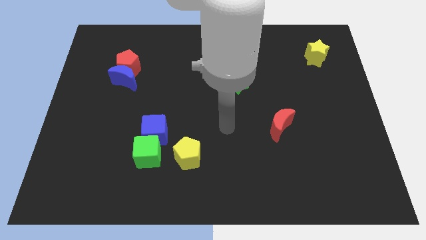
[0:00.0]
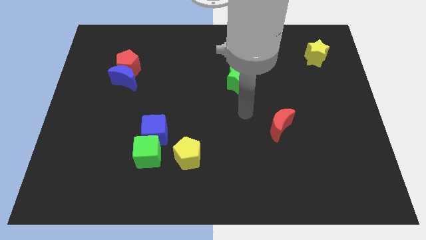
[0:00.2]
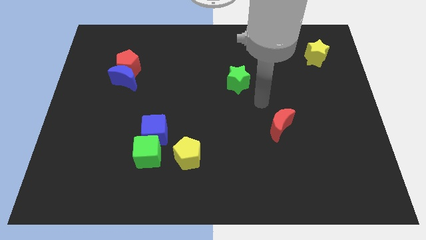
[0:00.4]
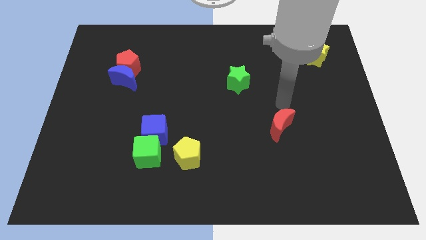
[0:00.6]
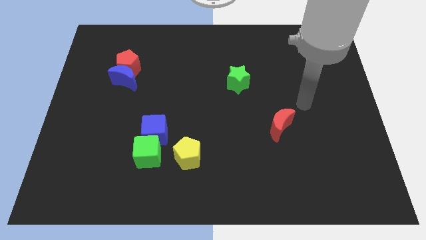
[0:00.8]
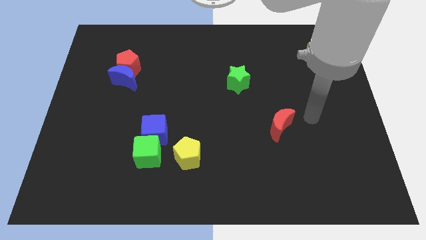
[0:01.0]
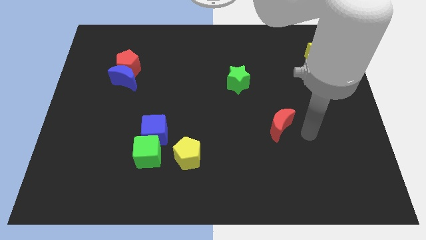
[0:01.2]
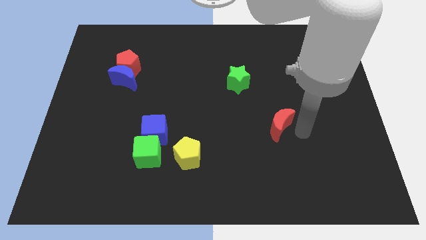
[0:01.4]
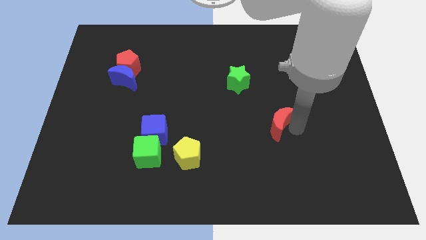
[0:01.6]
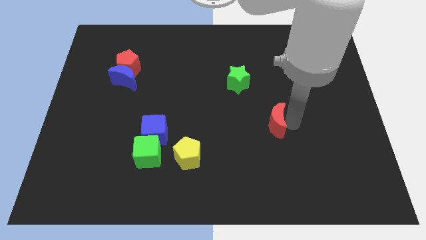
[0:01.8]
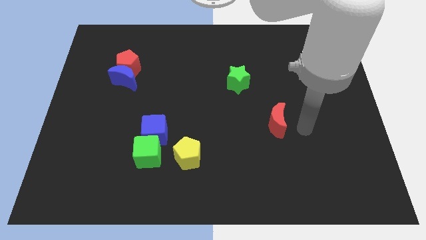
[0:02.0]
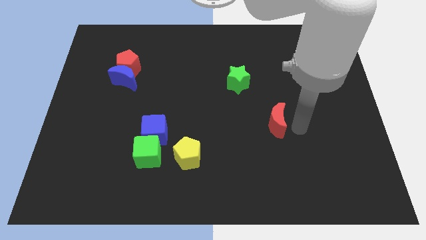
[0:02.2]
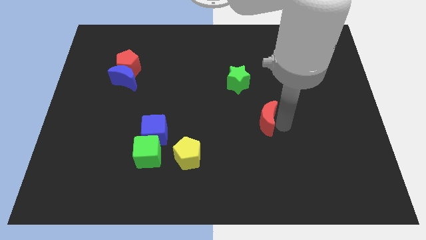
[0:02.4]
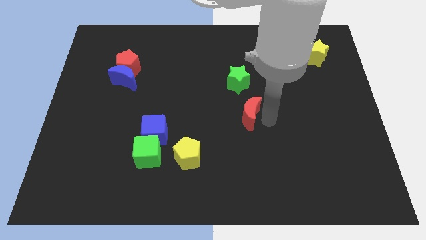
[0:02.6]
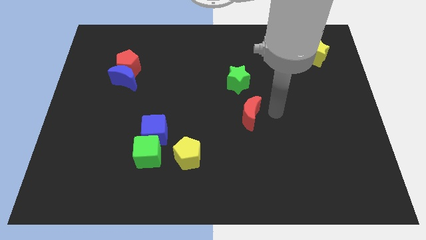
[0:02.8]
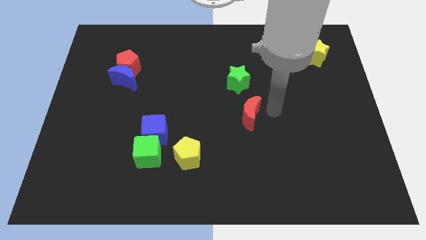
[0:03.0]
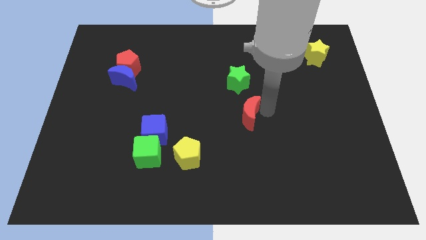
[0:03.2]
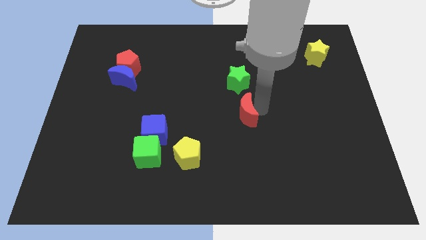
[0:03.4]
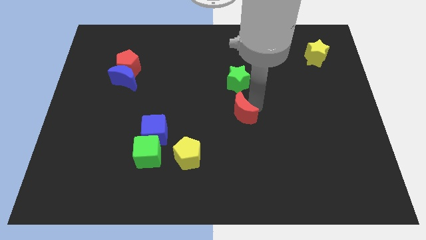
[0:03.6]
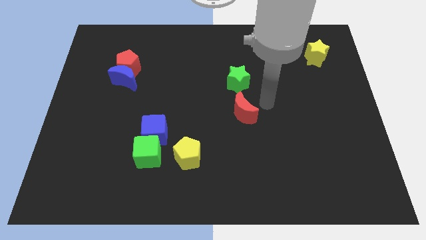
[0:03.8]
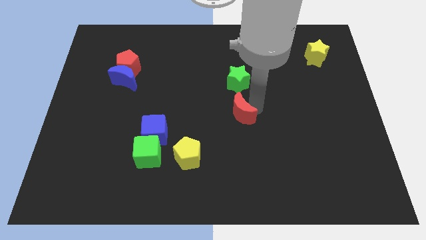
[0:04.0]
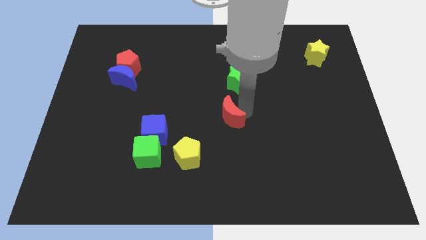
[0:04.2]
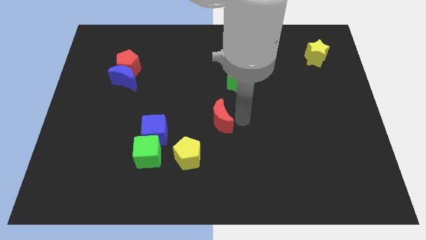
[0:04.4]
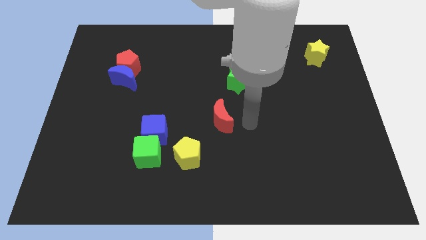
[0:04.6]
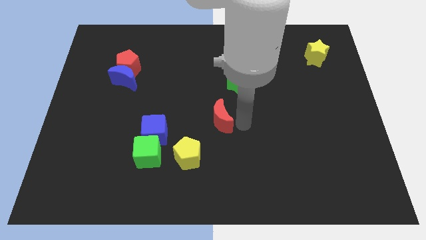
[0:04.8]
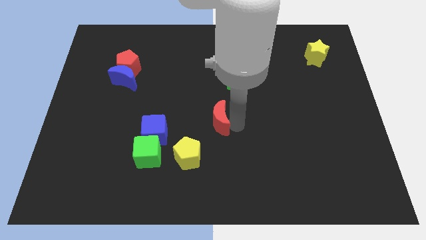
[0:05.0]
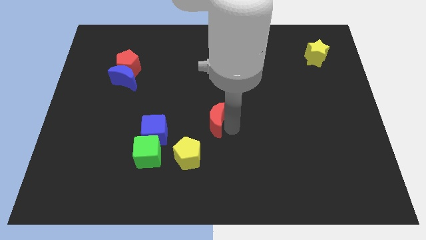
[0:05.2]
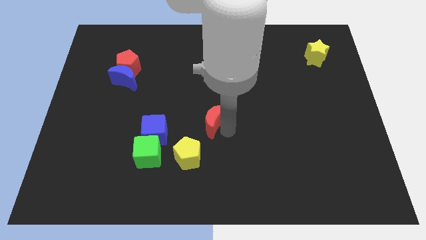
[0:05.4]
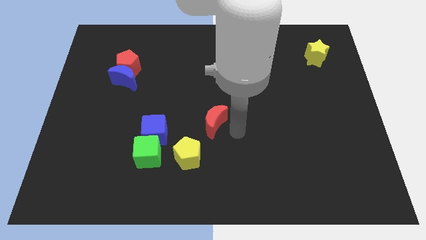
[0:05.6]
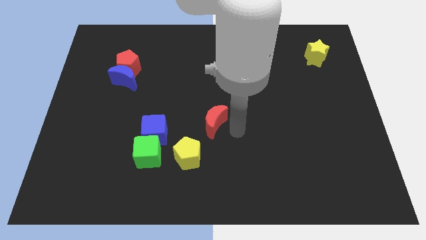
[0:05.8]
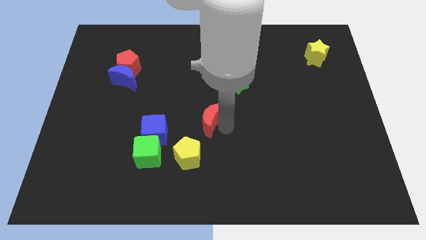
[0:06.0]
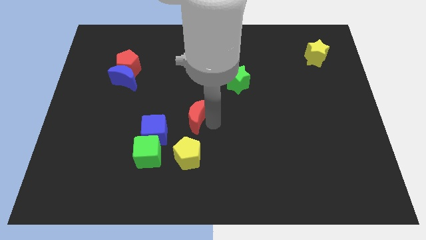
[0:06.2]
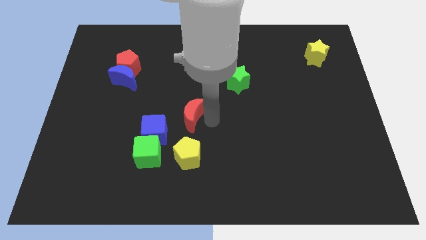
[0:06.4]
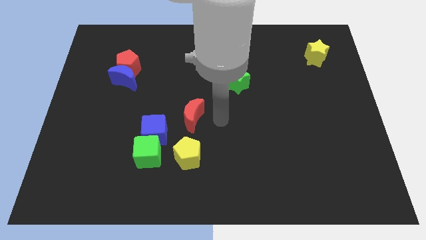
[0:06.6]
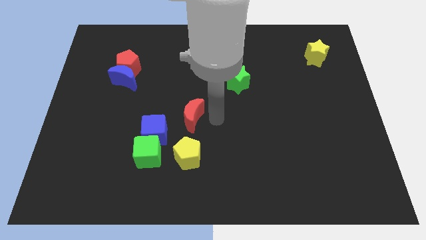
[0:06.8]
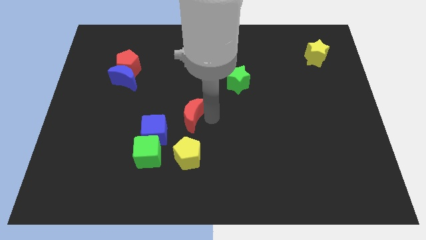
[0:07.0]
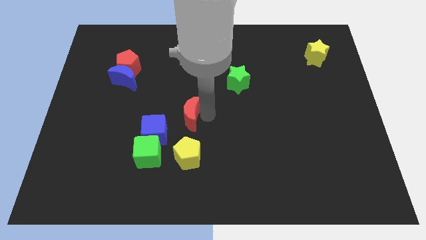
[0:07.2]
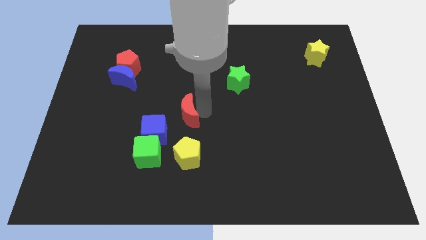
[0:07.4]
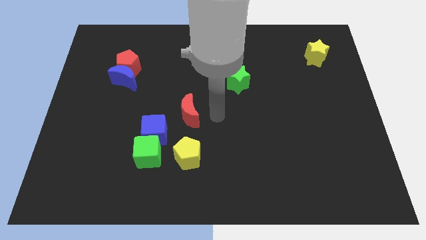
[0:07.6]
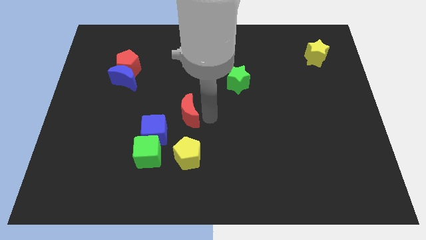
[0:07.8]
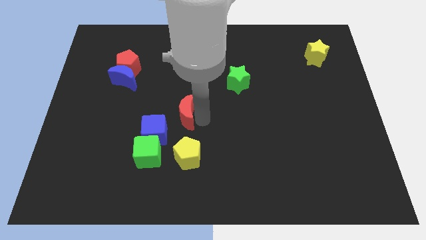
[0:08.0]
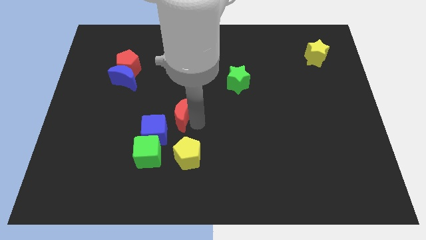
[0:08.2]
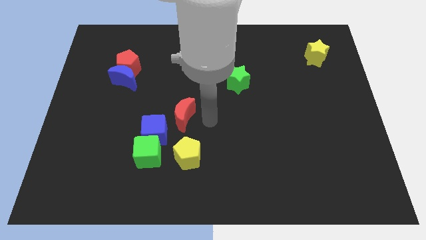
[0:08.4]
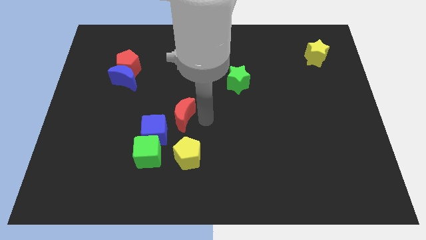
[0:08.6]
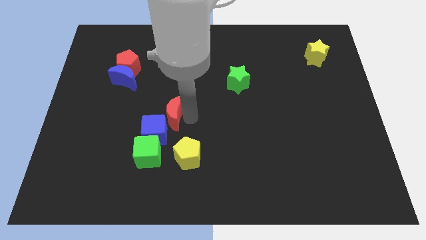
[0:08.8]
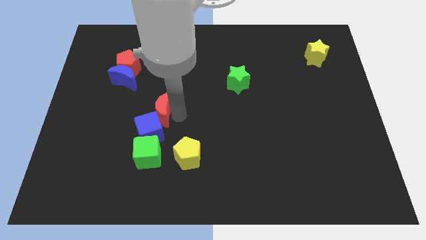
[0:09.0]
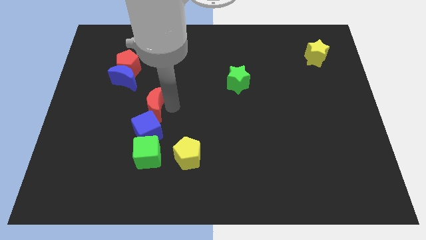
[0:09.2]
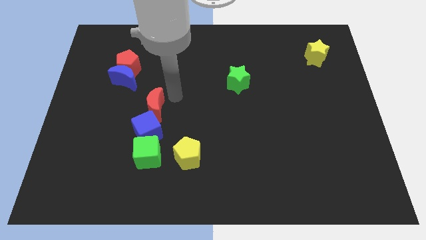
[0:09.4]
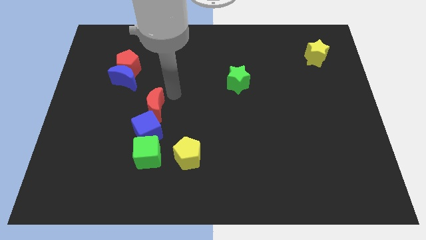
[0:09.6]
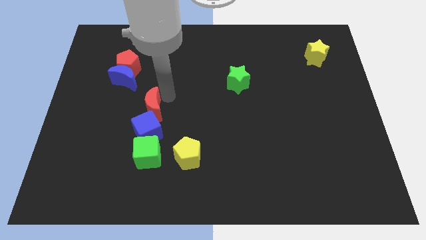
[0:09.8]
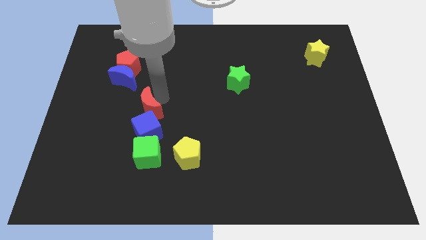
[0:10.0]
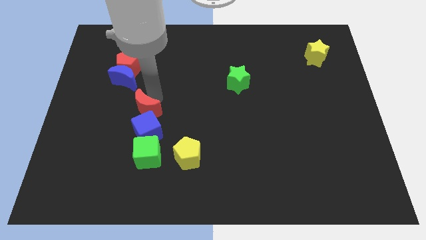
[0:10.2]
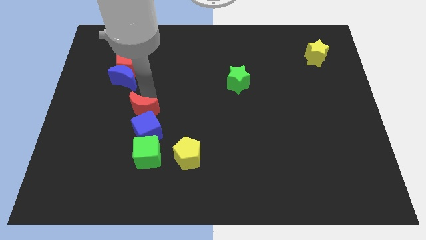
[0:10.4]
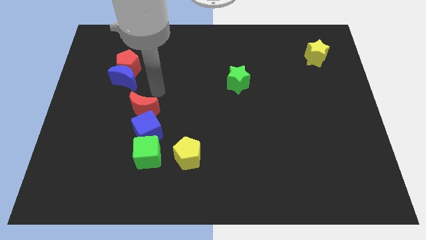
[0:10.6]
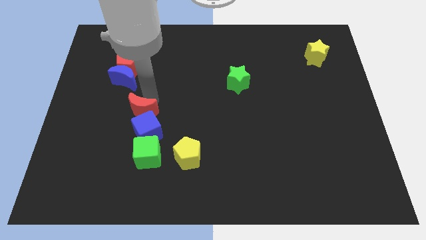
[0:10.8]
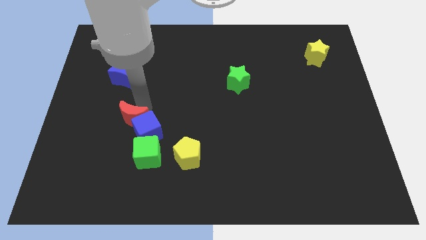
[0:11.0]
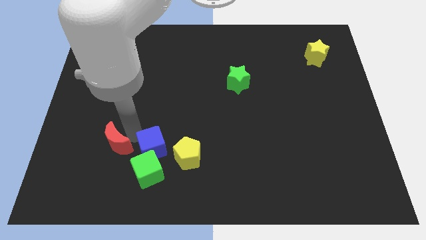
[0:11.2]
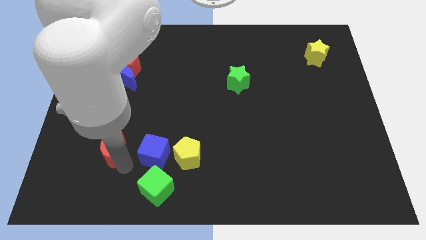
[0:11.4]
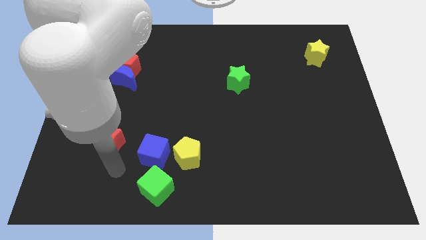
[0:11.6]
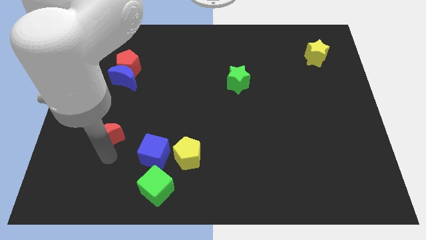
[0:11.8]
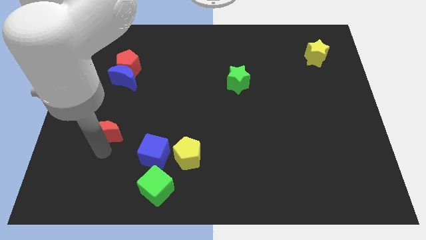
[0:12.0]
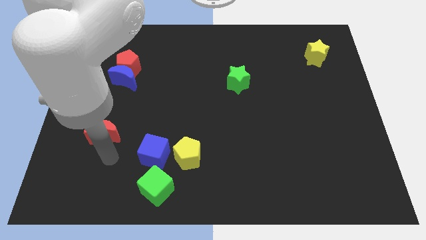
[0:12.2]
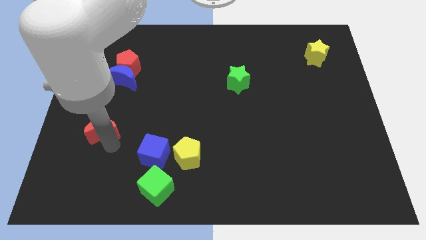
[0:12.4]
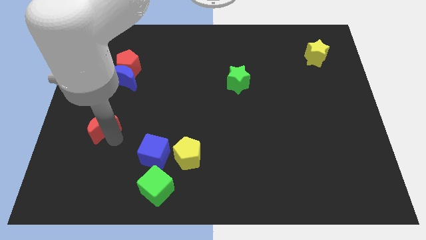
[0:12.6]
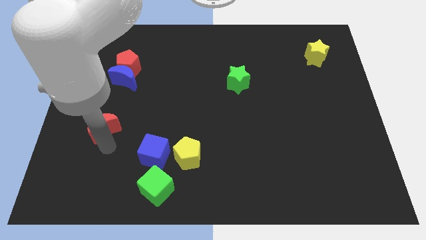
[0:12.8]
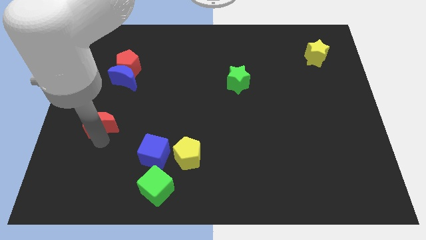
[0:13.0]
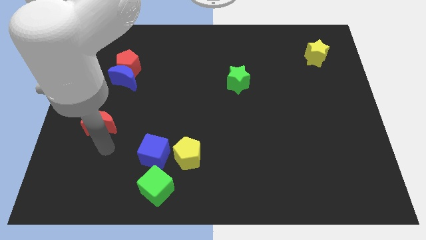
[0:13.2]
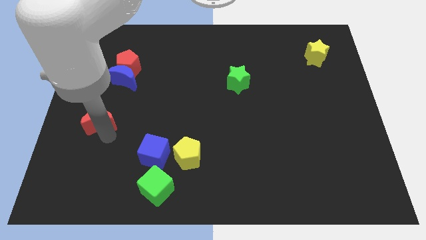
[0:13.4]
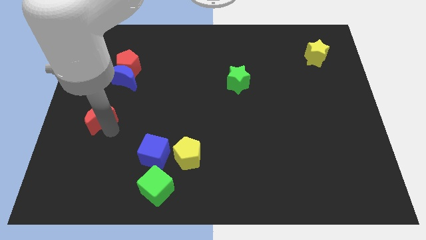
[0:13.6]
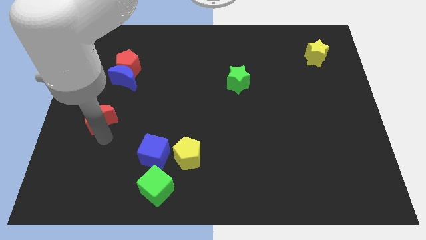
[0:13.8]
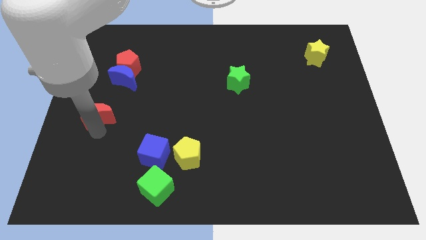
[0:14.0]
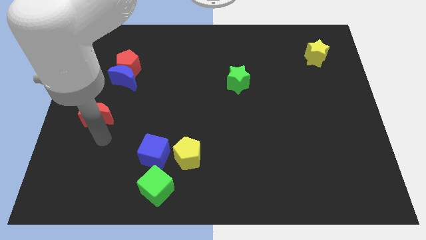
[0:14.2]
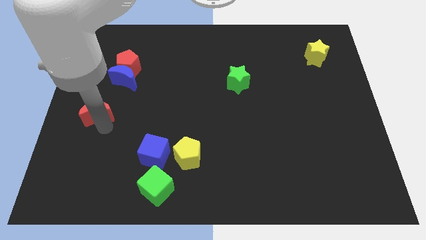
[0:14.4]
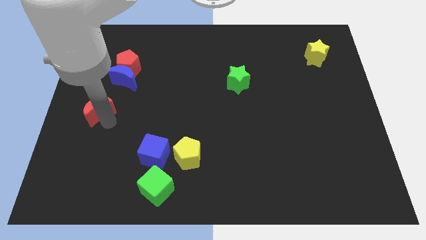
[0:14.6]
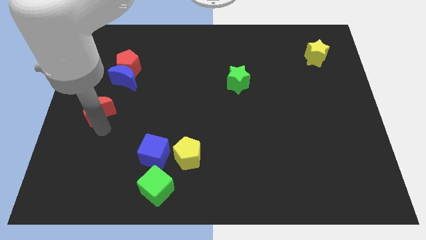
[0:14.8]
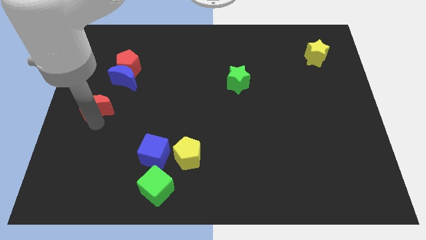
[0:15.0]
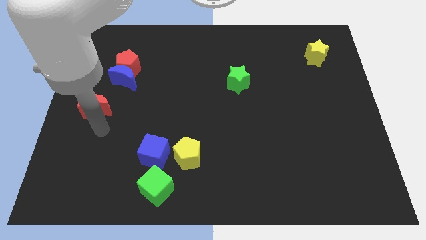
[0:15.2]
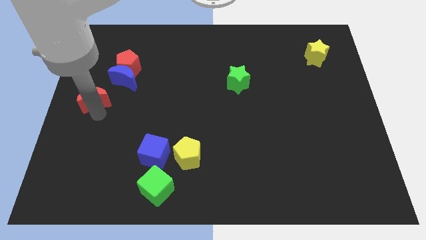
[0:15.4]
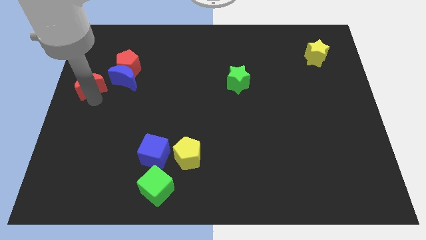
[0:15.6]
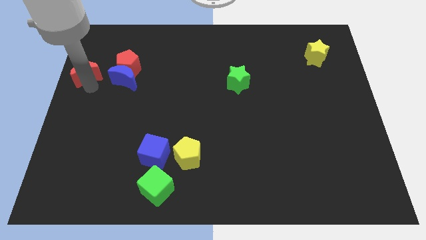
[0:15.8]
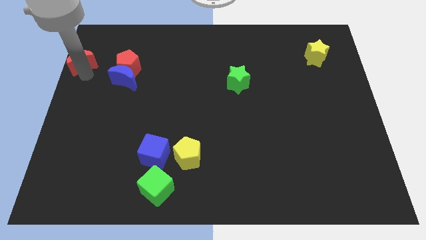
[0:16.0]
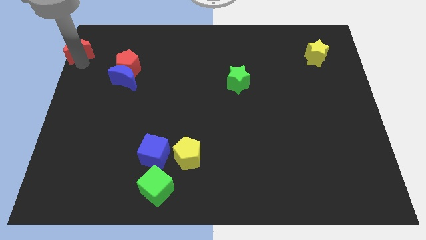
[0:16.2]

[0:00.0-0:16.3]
move the red moon to the top left corner
